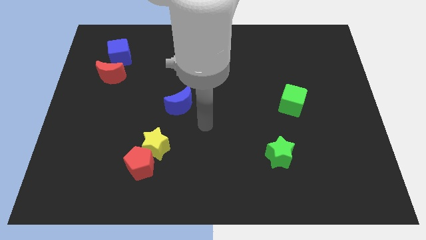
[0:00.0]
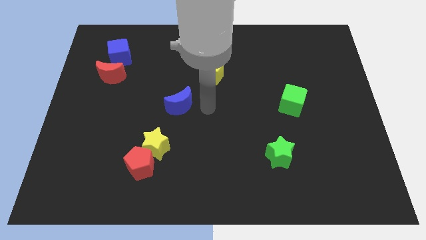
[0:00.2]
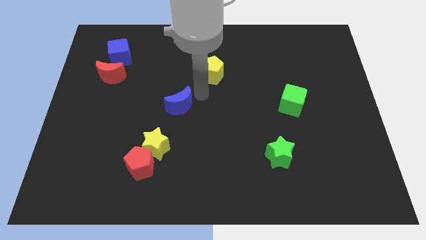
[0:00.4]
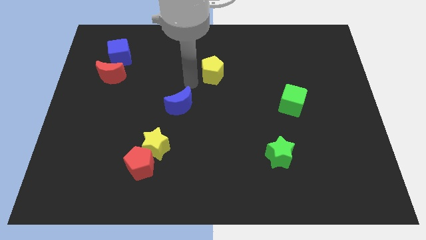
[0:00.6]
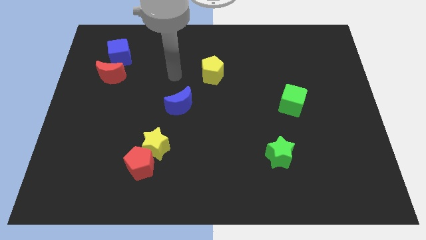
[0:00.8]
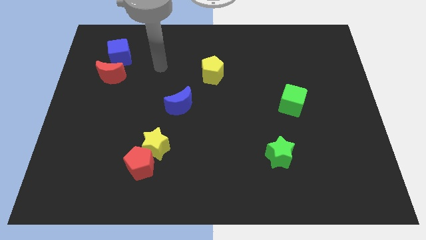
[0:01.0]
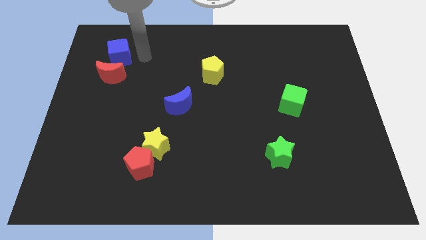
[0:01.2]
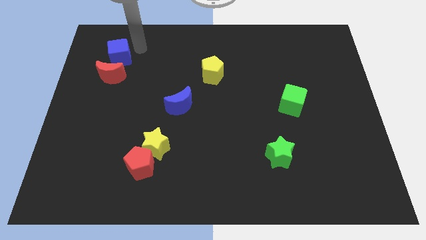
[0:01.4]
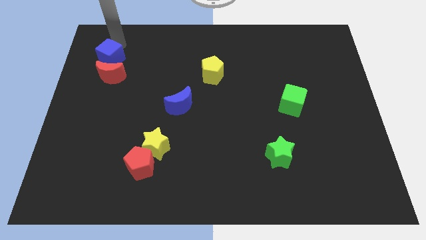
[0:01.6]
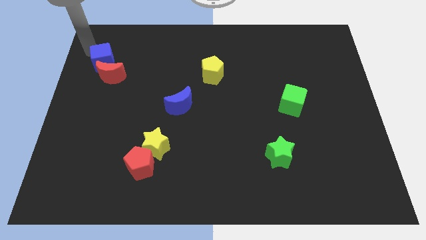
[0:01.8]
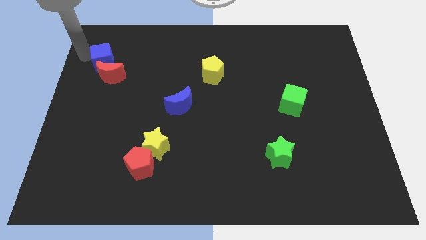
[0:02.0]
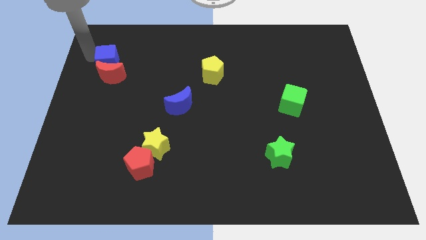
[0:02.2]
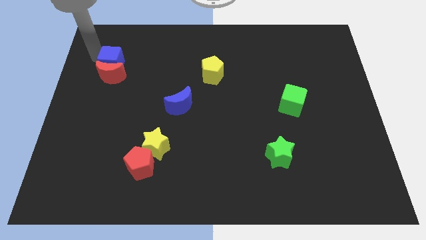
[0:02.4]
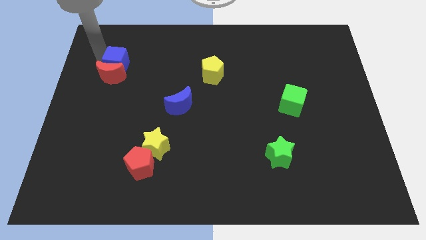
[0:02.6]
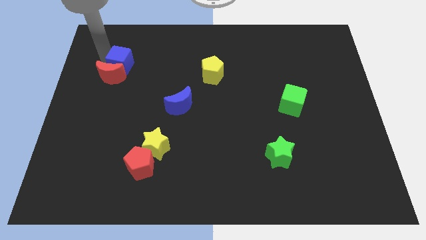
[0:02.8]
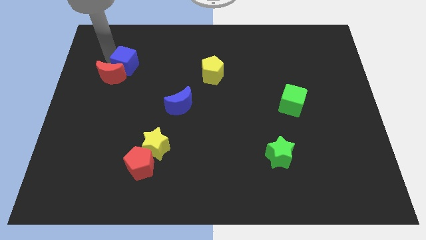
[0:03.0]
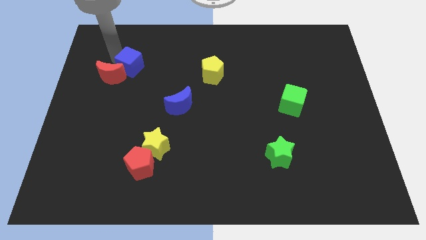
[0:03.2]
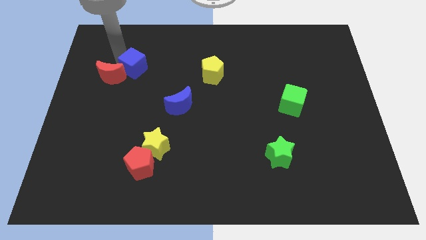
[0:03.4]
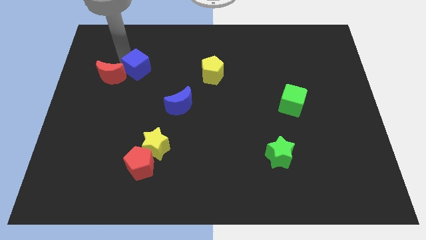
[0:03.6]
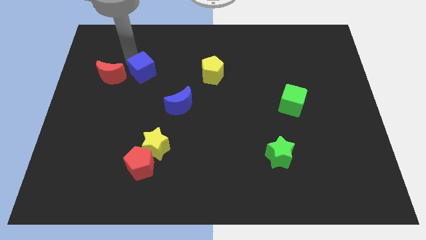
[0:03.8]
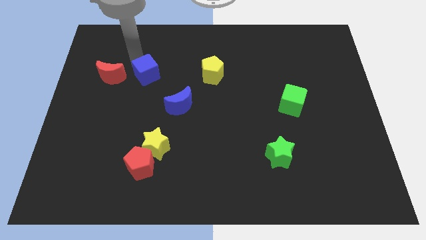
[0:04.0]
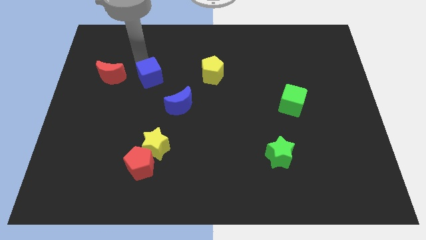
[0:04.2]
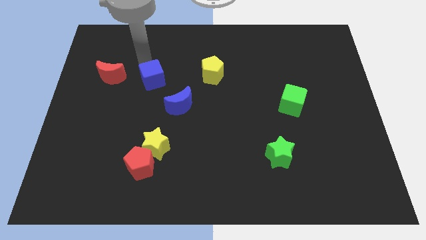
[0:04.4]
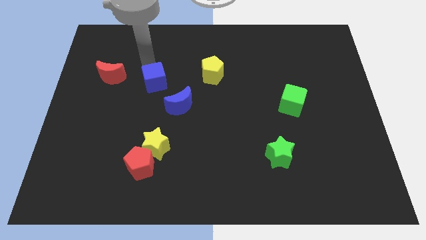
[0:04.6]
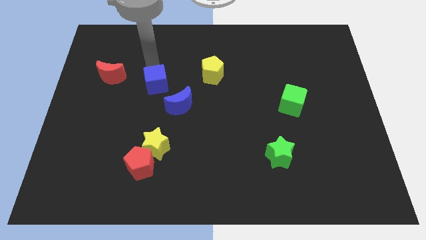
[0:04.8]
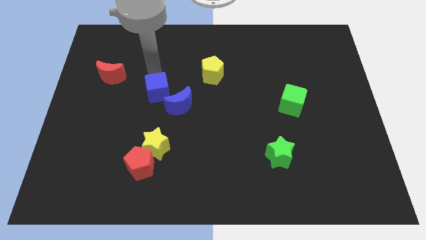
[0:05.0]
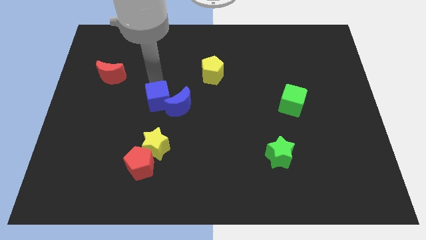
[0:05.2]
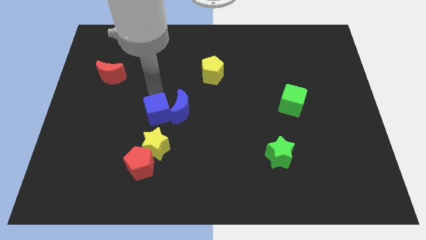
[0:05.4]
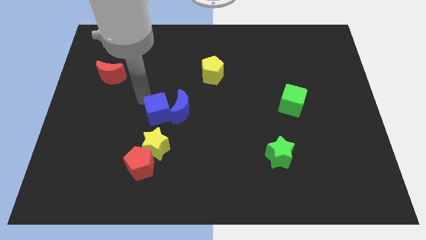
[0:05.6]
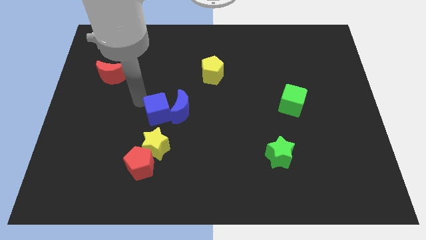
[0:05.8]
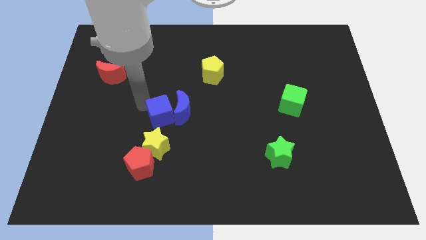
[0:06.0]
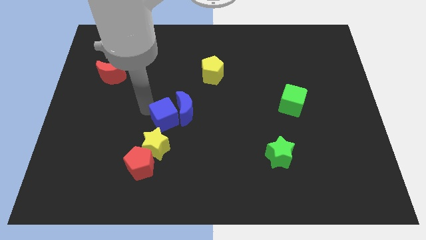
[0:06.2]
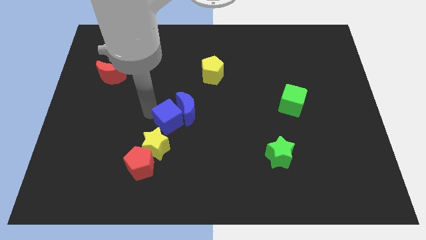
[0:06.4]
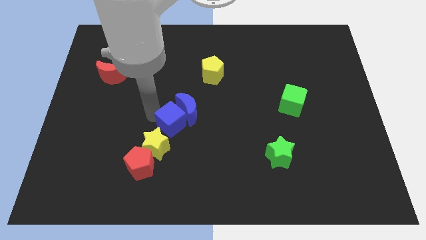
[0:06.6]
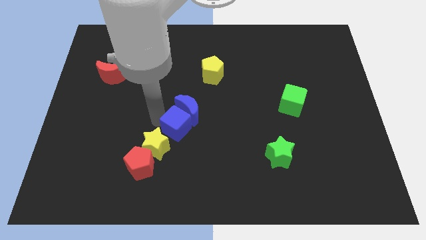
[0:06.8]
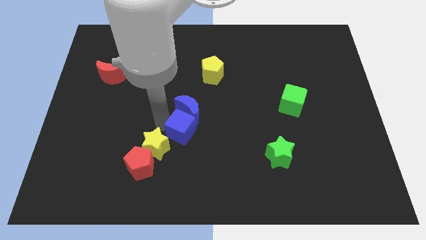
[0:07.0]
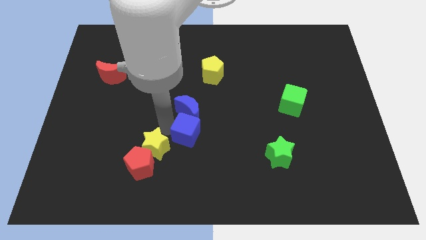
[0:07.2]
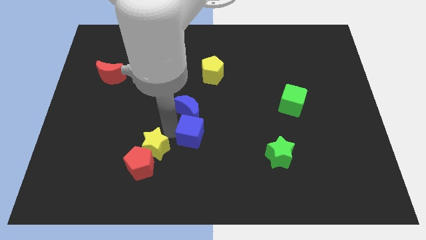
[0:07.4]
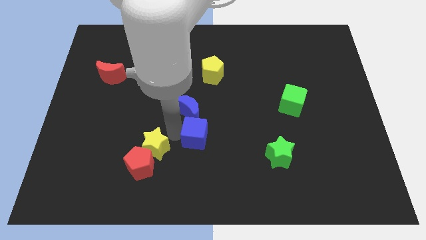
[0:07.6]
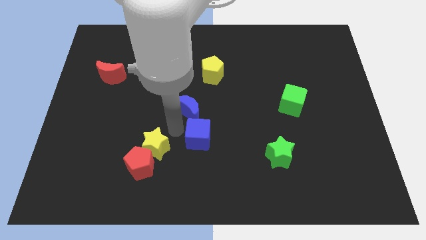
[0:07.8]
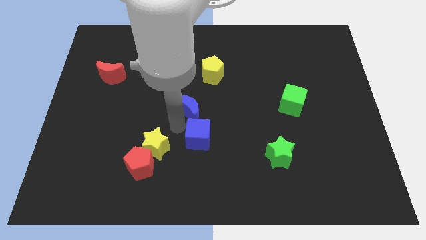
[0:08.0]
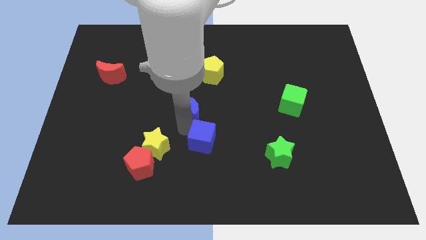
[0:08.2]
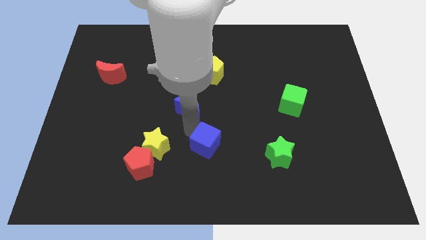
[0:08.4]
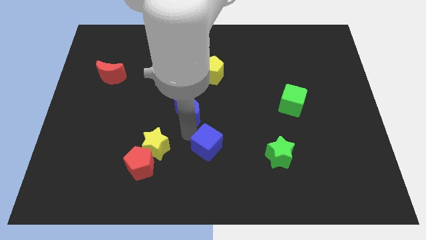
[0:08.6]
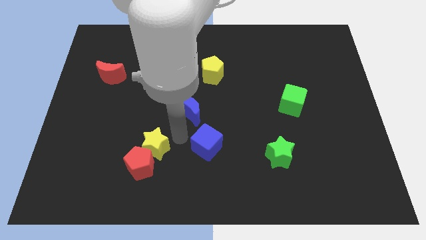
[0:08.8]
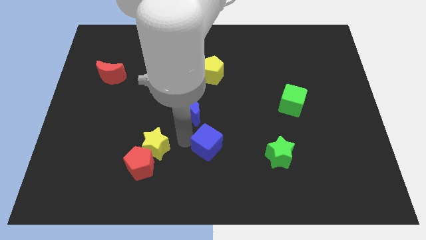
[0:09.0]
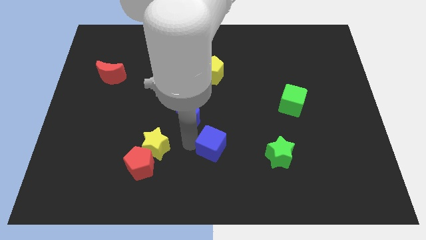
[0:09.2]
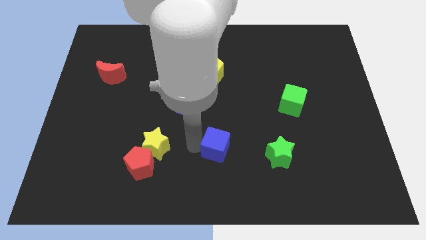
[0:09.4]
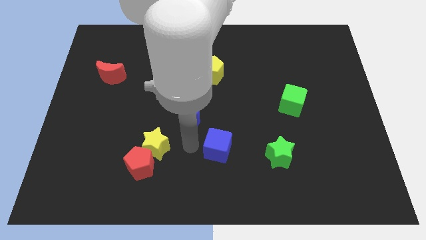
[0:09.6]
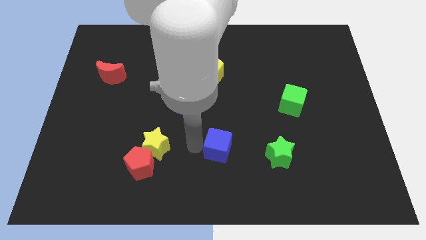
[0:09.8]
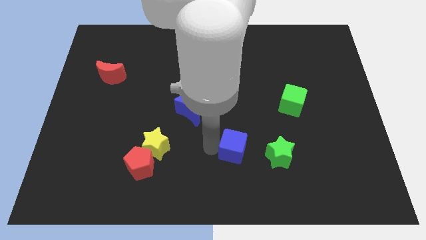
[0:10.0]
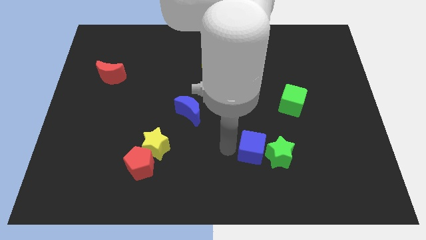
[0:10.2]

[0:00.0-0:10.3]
put the blue cube towards the green star

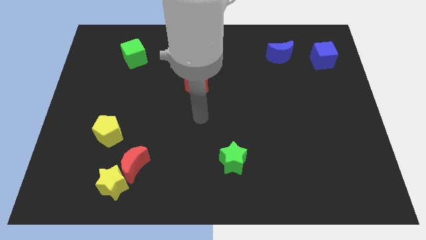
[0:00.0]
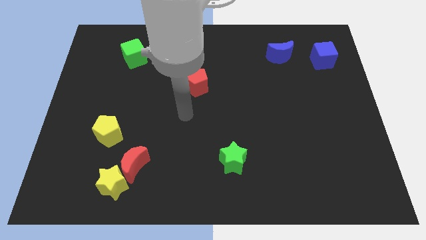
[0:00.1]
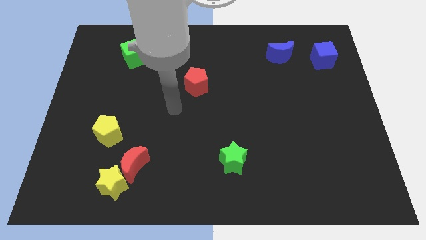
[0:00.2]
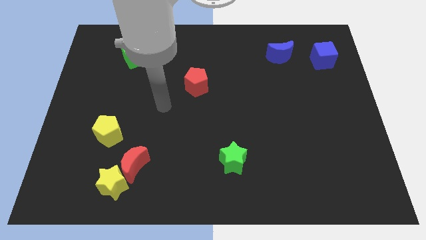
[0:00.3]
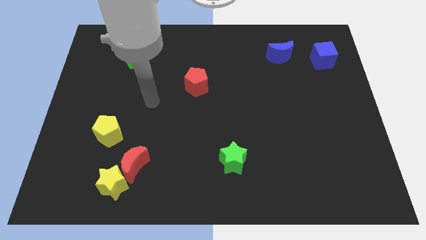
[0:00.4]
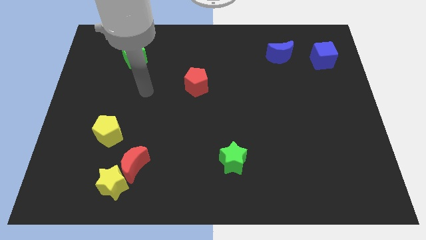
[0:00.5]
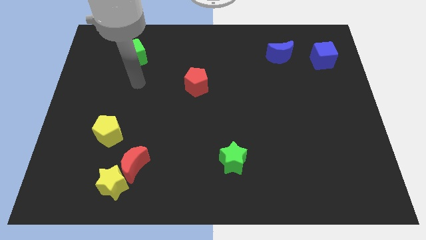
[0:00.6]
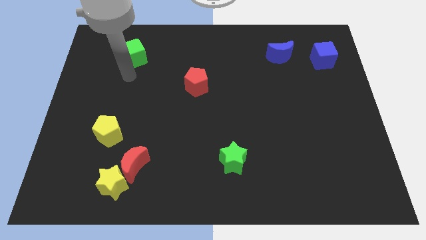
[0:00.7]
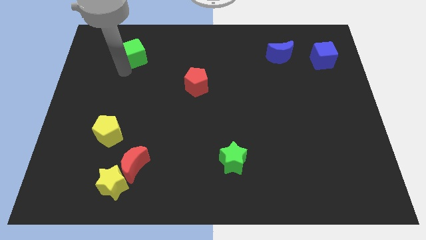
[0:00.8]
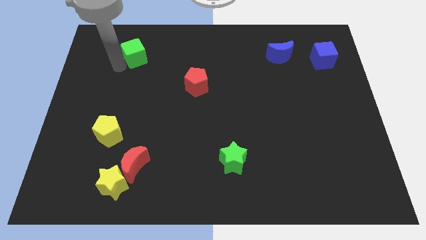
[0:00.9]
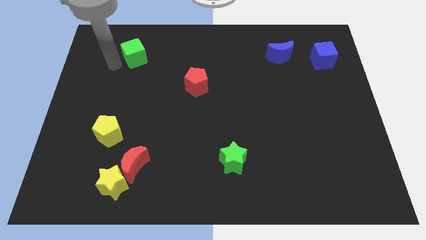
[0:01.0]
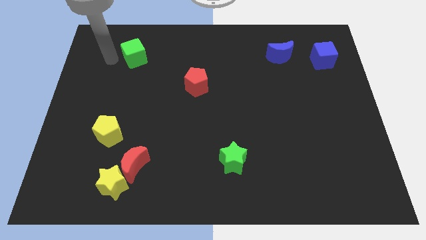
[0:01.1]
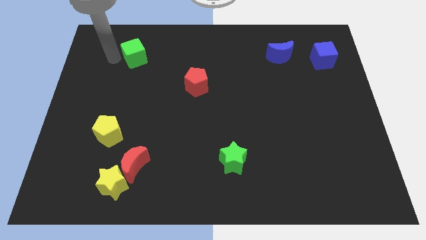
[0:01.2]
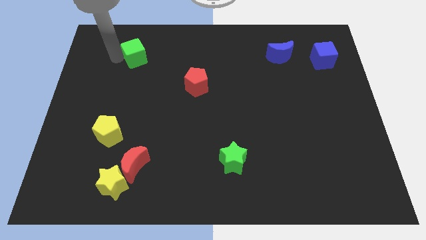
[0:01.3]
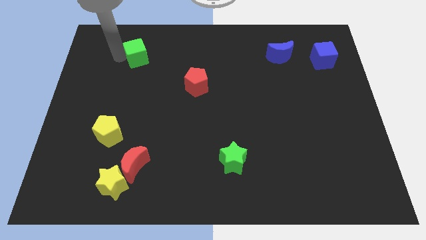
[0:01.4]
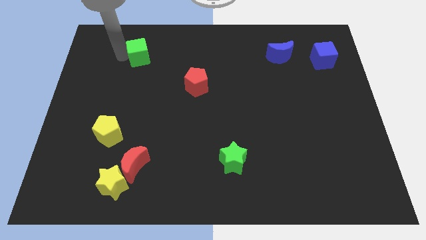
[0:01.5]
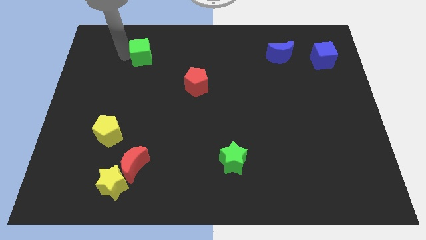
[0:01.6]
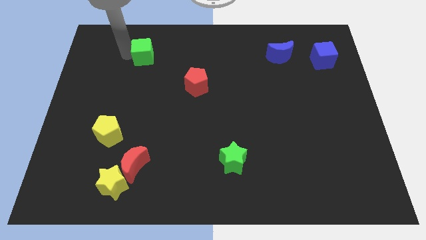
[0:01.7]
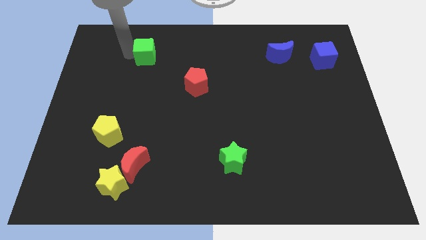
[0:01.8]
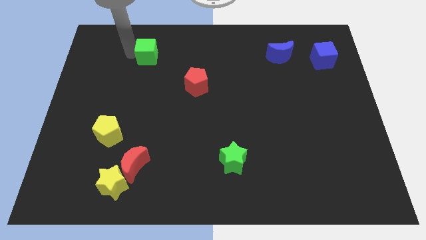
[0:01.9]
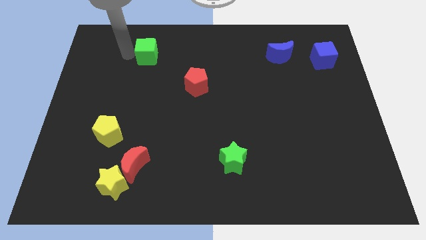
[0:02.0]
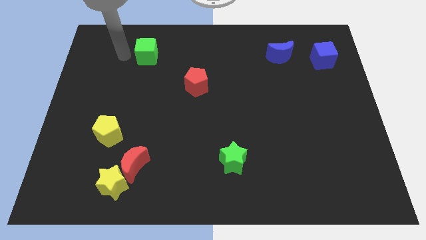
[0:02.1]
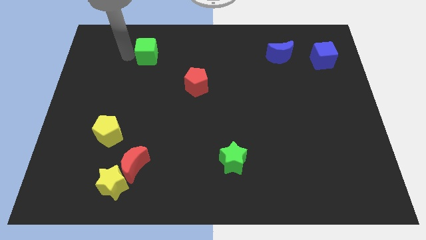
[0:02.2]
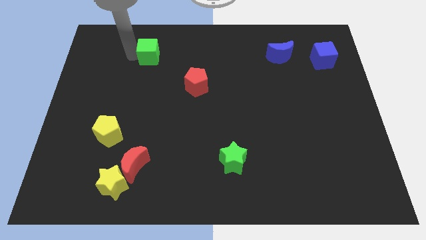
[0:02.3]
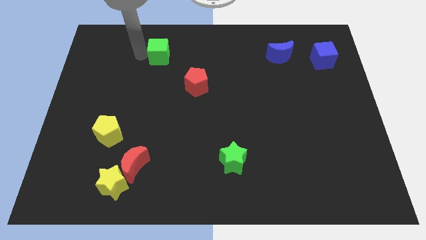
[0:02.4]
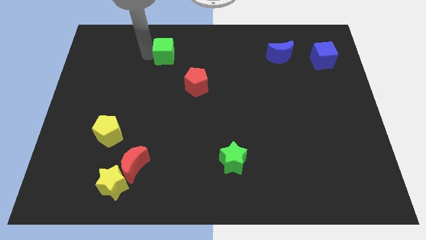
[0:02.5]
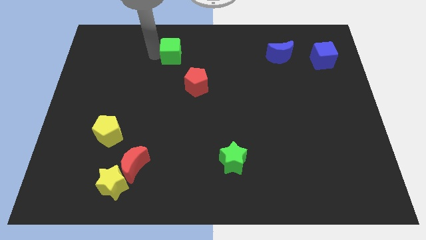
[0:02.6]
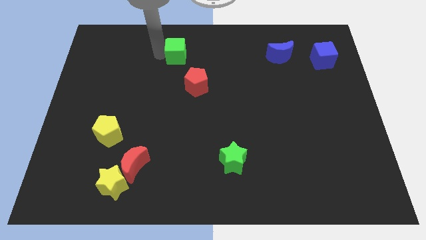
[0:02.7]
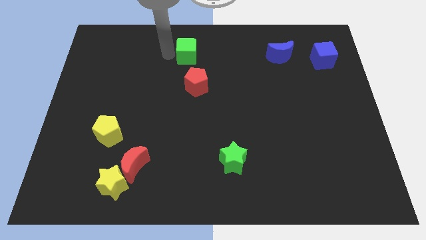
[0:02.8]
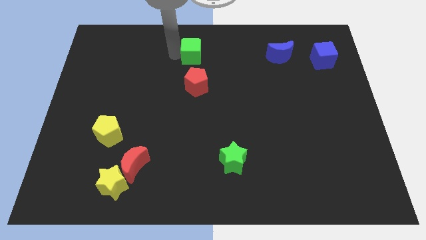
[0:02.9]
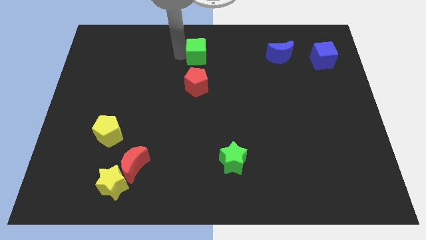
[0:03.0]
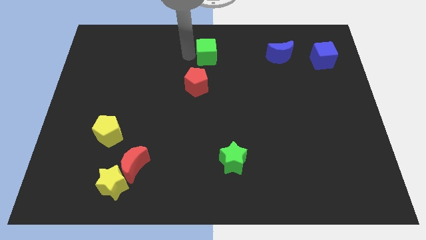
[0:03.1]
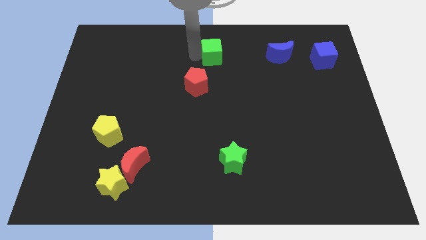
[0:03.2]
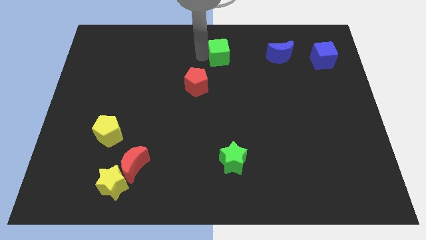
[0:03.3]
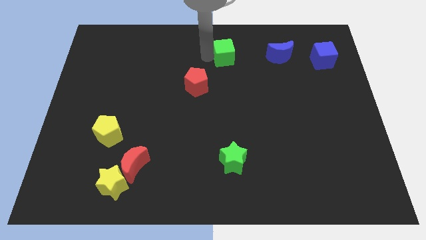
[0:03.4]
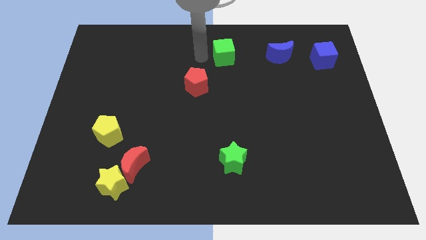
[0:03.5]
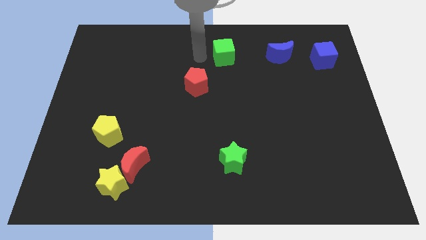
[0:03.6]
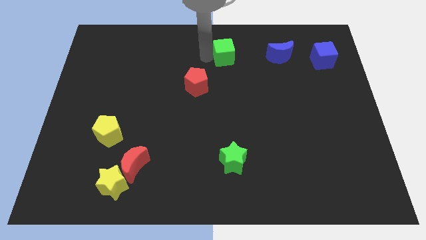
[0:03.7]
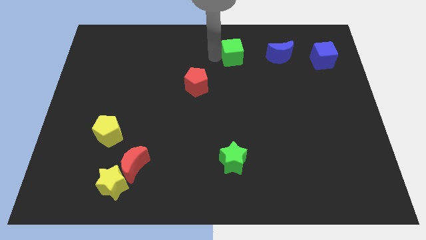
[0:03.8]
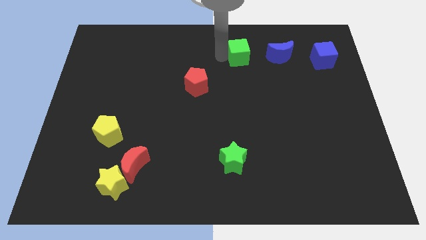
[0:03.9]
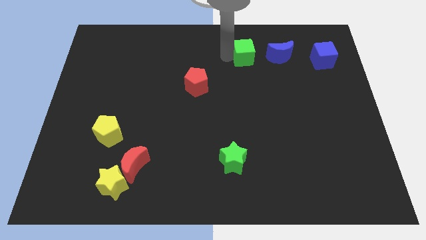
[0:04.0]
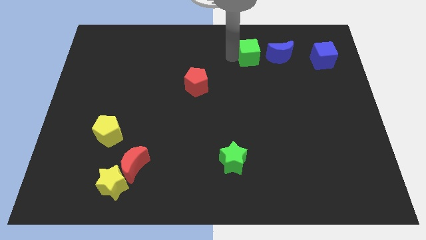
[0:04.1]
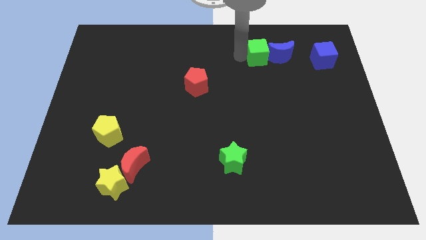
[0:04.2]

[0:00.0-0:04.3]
move the green cube towards the blue moon
